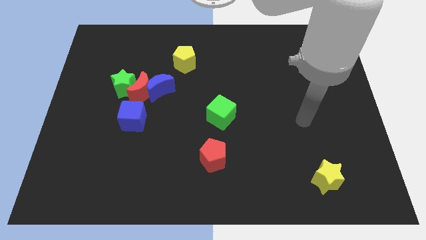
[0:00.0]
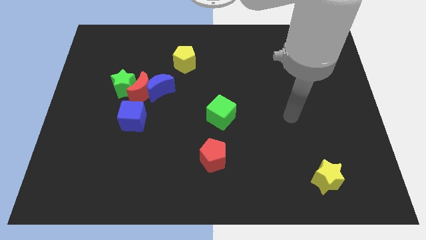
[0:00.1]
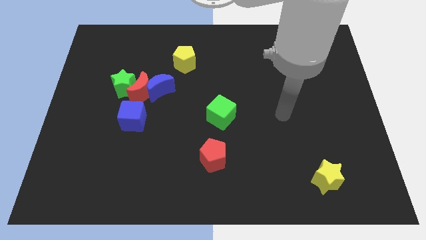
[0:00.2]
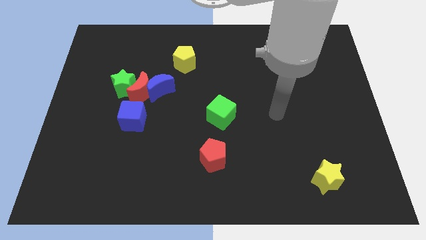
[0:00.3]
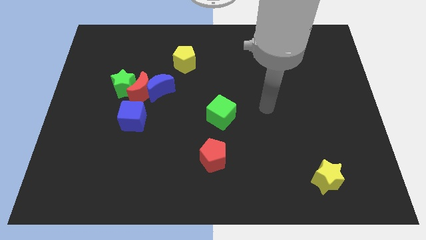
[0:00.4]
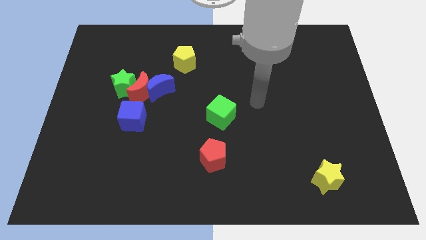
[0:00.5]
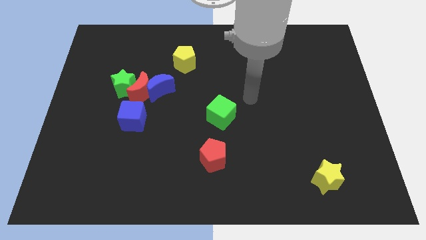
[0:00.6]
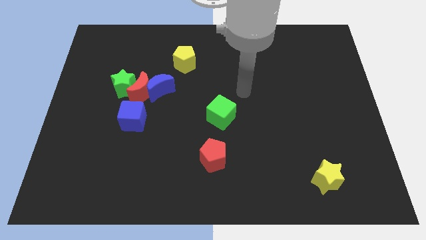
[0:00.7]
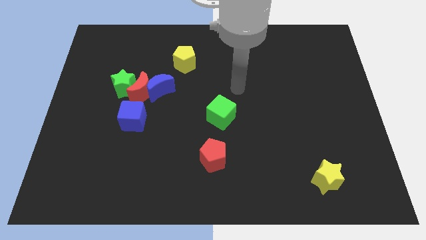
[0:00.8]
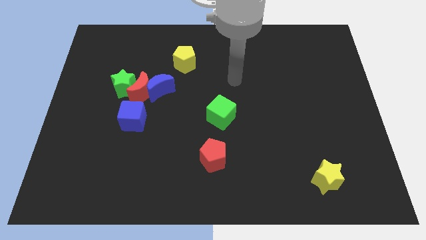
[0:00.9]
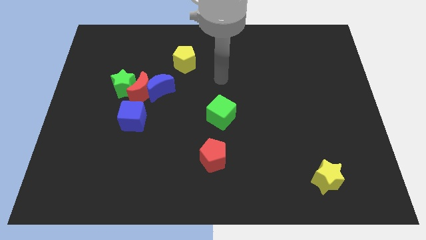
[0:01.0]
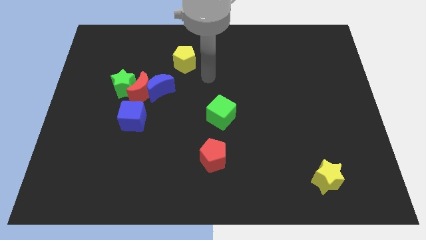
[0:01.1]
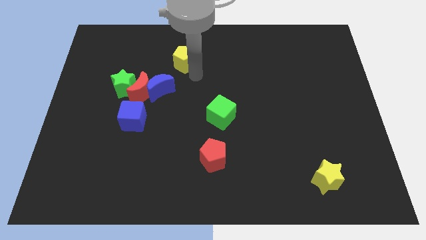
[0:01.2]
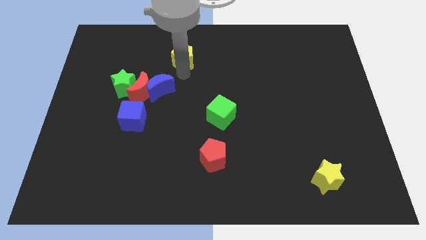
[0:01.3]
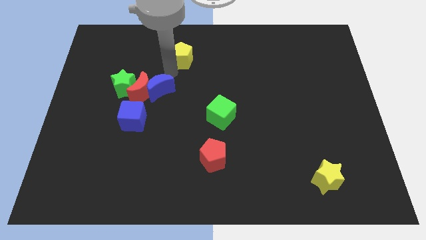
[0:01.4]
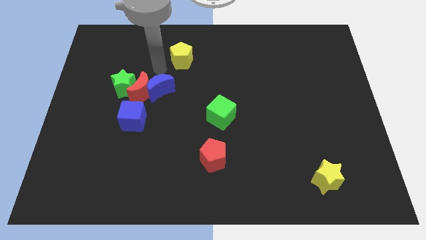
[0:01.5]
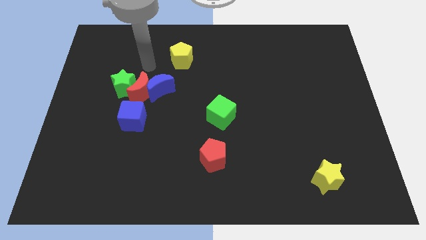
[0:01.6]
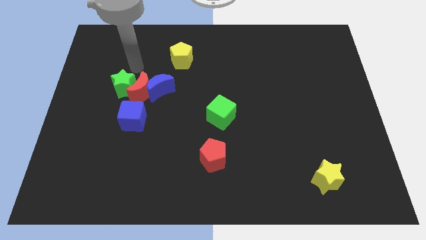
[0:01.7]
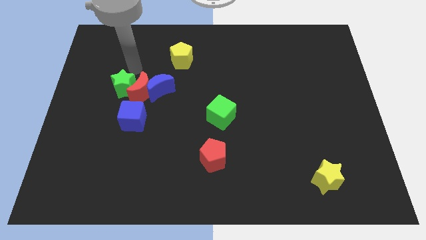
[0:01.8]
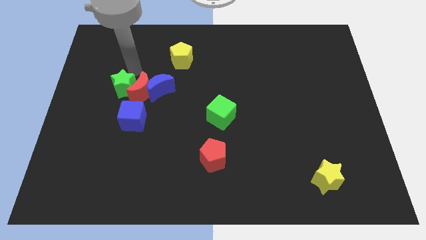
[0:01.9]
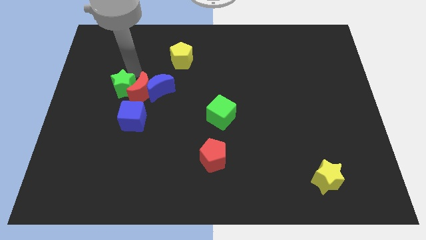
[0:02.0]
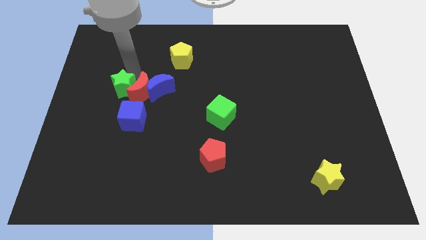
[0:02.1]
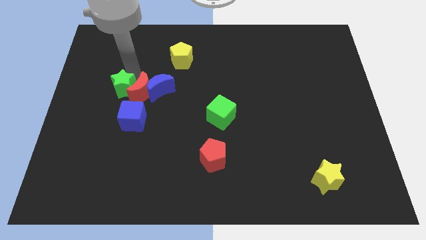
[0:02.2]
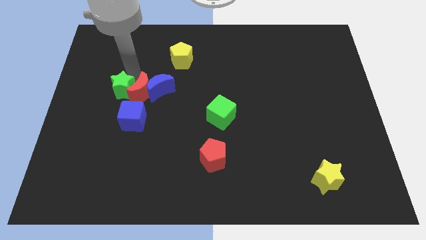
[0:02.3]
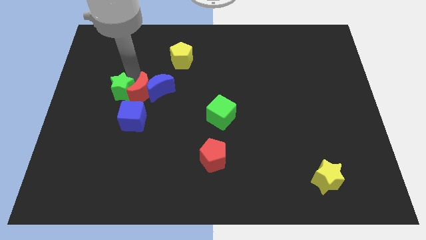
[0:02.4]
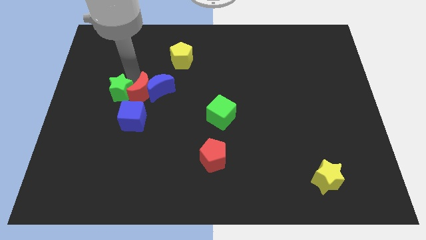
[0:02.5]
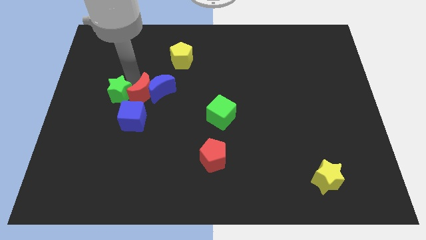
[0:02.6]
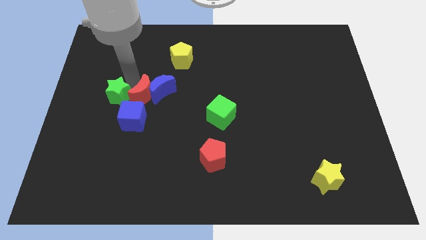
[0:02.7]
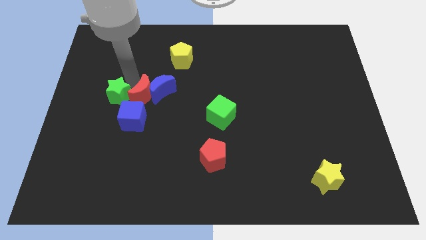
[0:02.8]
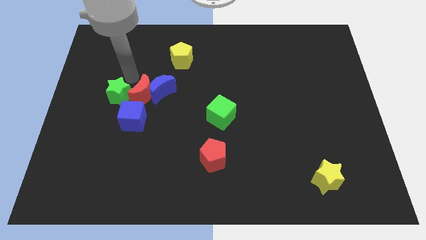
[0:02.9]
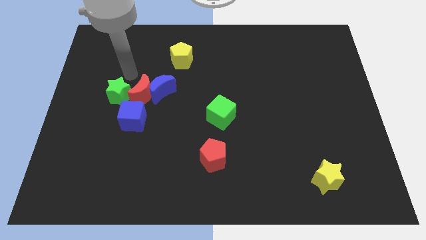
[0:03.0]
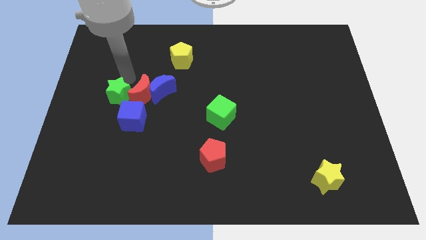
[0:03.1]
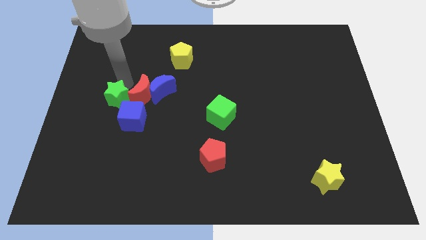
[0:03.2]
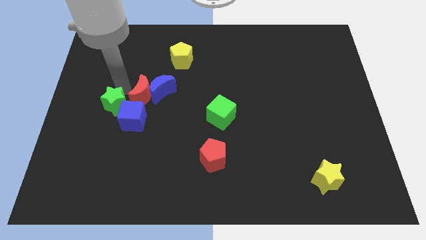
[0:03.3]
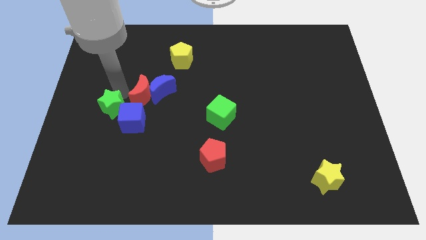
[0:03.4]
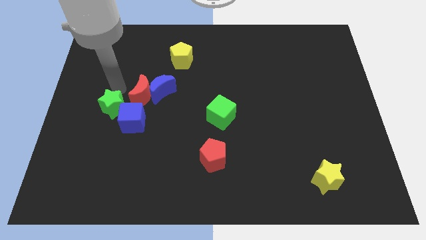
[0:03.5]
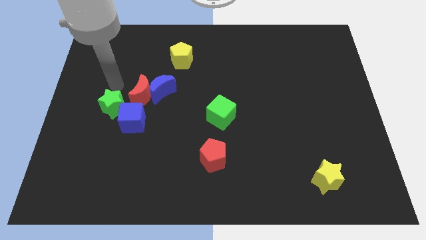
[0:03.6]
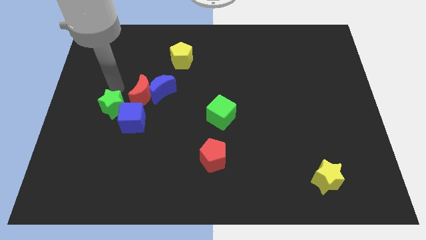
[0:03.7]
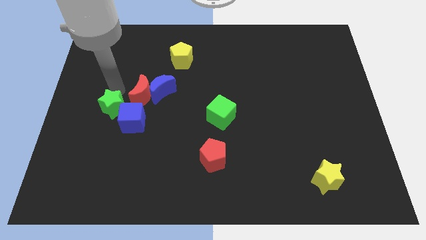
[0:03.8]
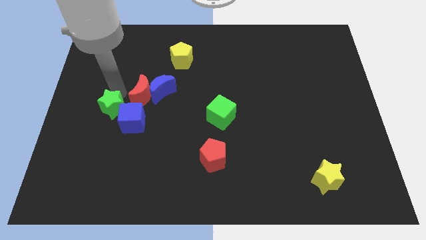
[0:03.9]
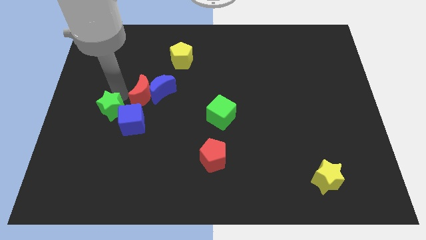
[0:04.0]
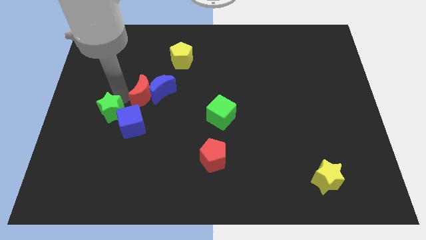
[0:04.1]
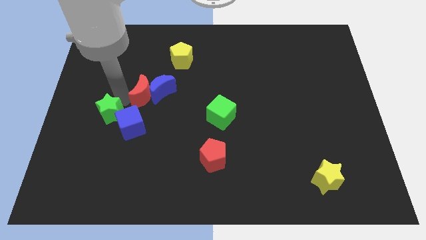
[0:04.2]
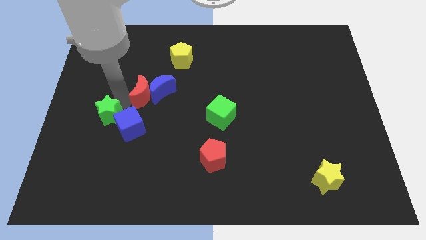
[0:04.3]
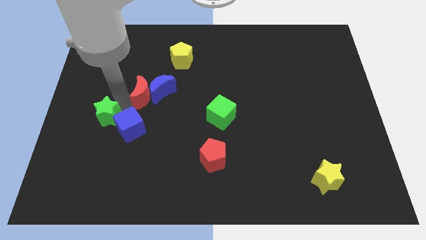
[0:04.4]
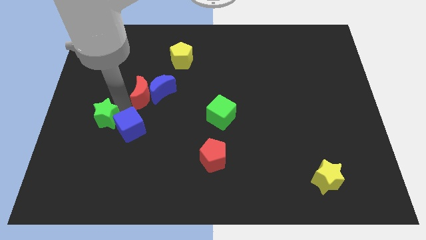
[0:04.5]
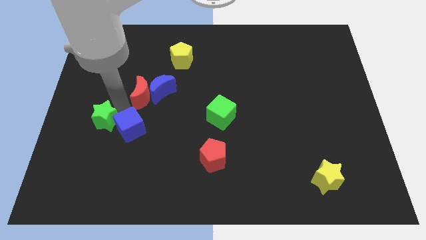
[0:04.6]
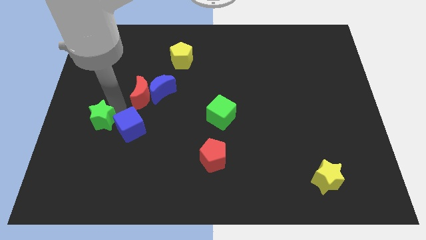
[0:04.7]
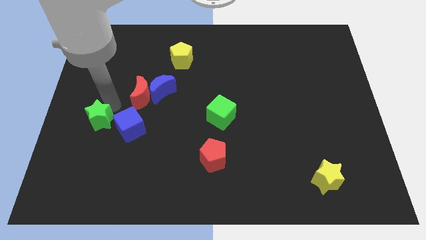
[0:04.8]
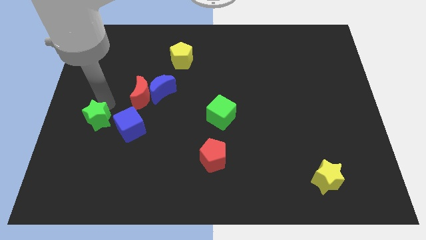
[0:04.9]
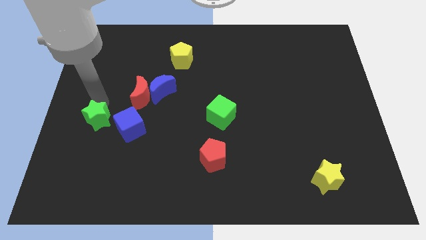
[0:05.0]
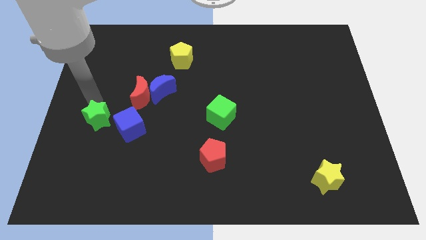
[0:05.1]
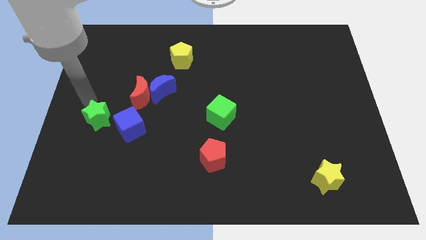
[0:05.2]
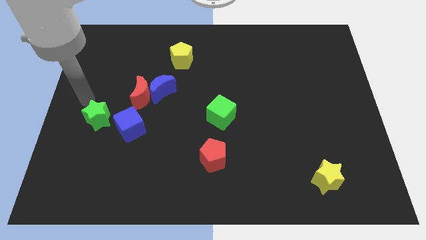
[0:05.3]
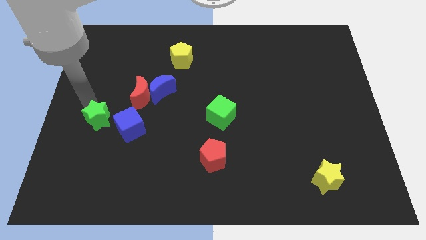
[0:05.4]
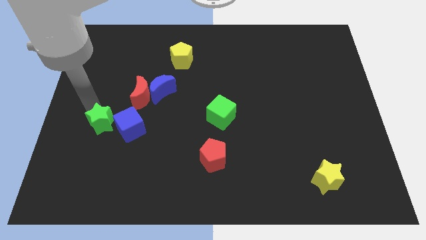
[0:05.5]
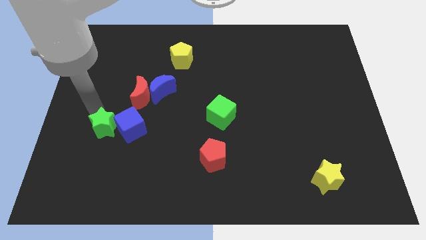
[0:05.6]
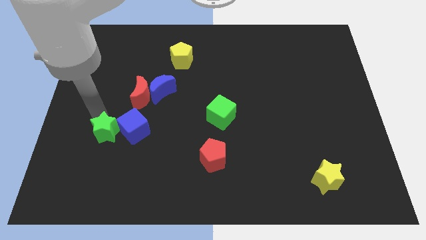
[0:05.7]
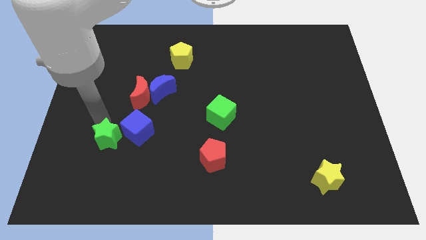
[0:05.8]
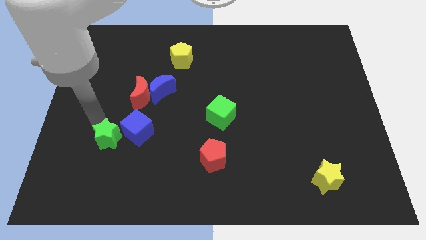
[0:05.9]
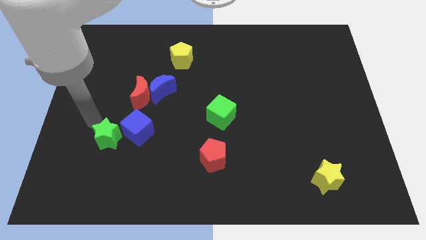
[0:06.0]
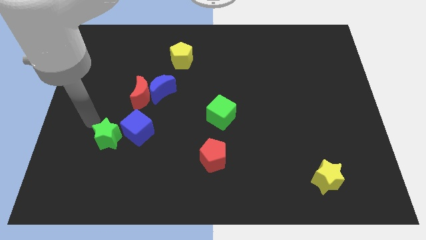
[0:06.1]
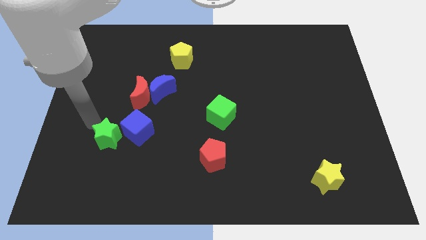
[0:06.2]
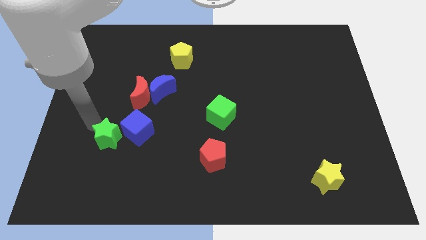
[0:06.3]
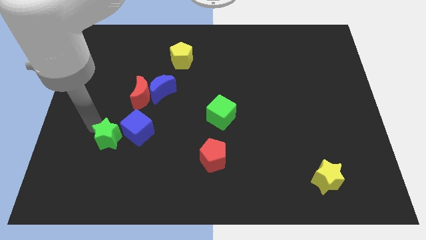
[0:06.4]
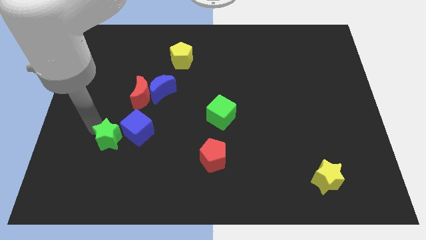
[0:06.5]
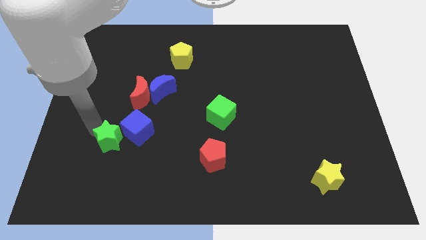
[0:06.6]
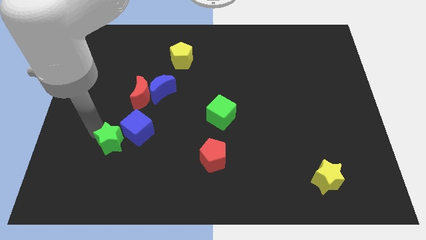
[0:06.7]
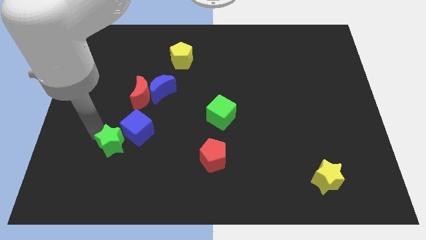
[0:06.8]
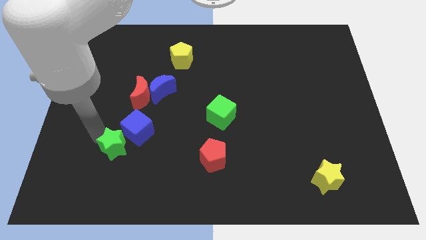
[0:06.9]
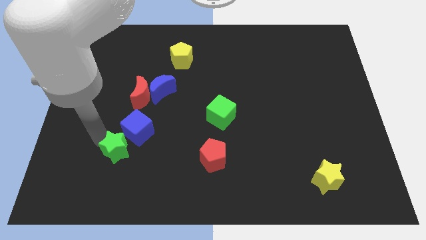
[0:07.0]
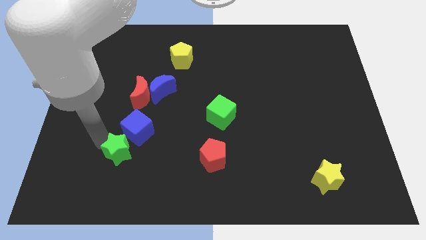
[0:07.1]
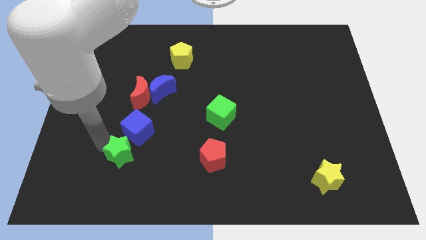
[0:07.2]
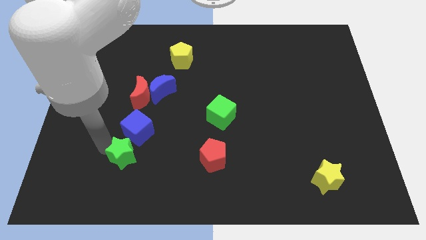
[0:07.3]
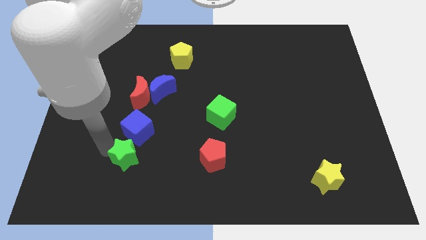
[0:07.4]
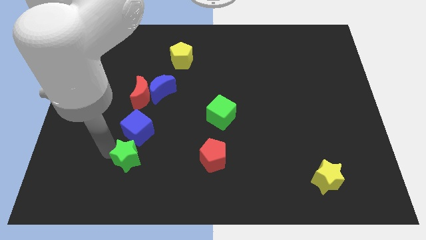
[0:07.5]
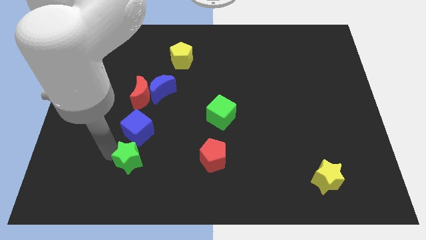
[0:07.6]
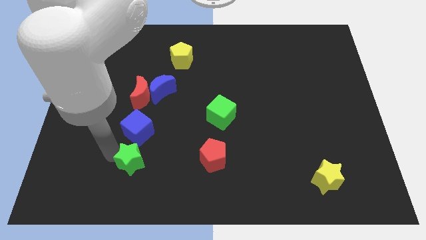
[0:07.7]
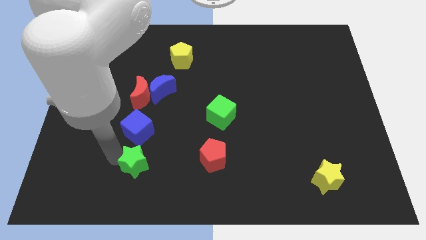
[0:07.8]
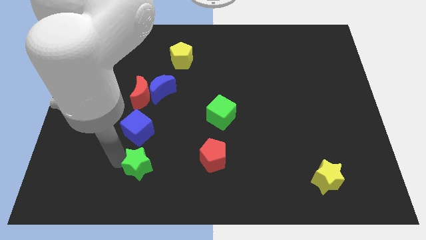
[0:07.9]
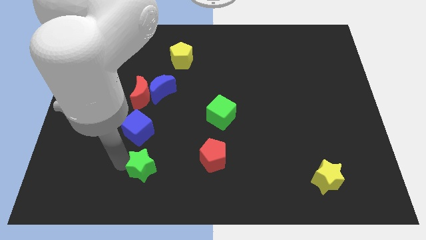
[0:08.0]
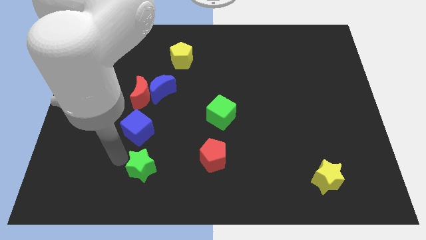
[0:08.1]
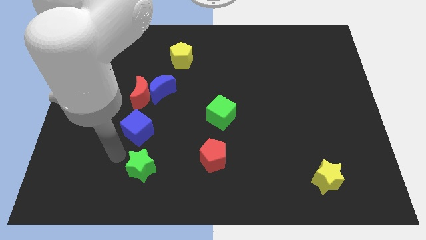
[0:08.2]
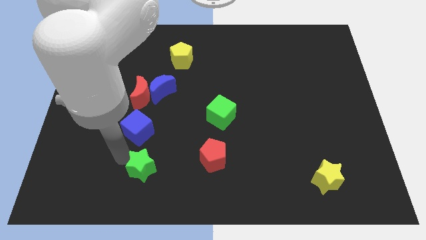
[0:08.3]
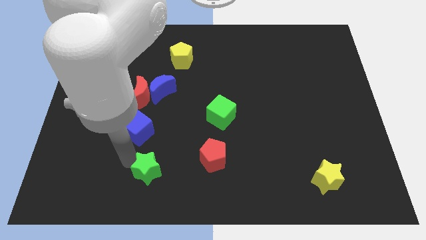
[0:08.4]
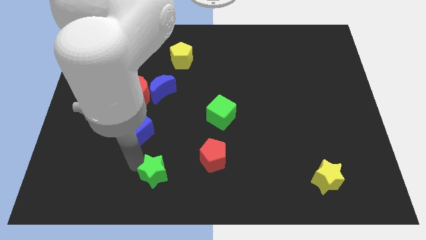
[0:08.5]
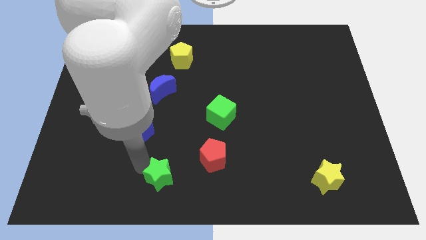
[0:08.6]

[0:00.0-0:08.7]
move the green star to the bottom side
